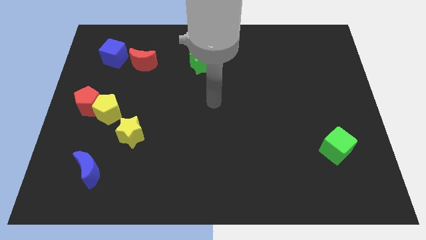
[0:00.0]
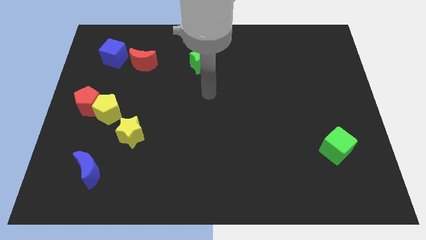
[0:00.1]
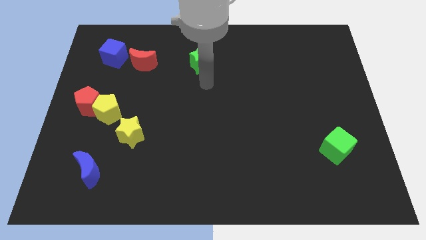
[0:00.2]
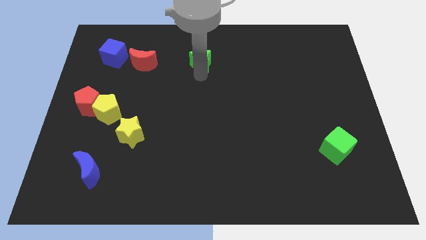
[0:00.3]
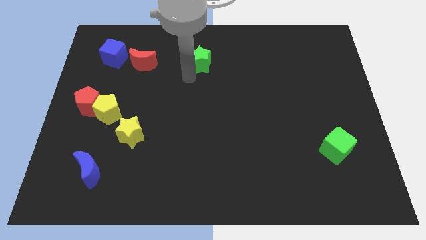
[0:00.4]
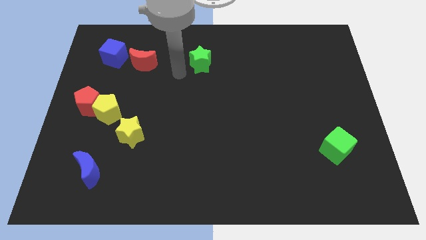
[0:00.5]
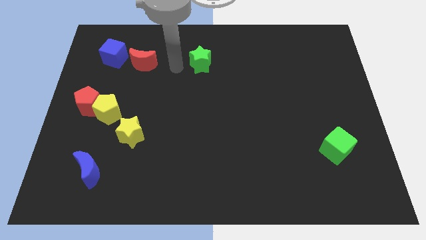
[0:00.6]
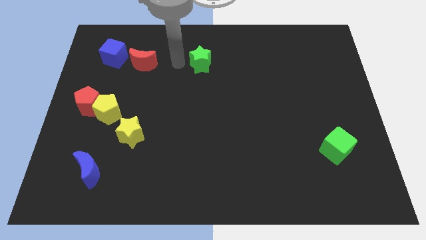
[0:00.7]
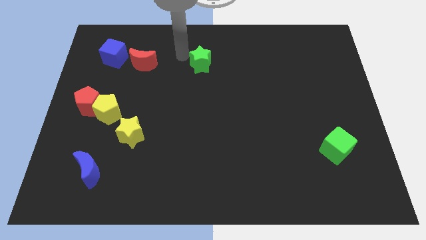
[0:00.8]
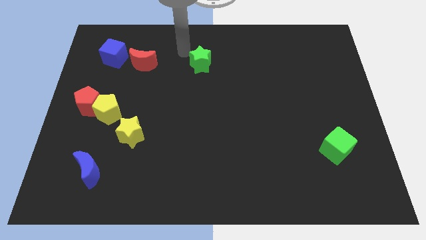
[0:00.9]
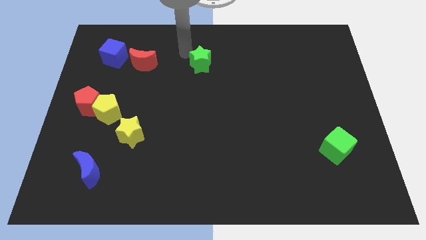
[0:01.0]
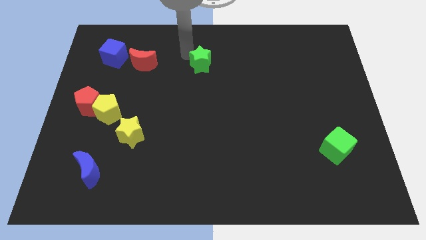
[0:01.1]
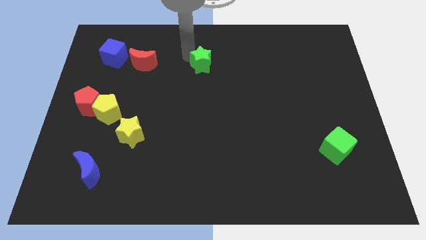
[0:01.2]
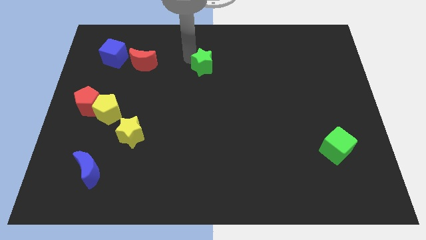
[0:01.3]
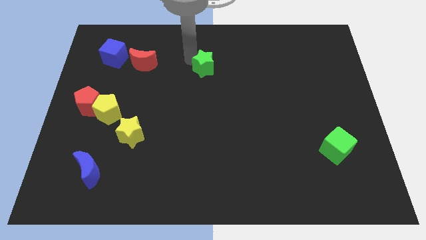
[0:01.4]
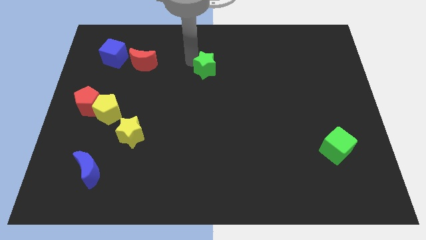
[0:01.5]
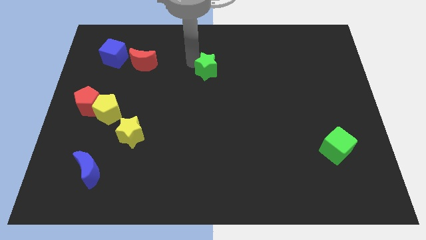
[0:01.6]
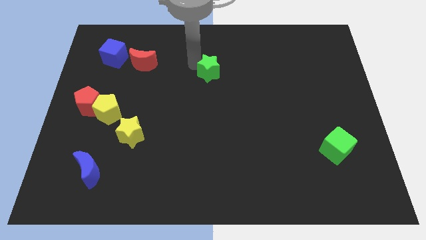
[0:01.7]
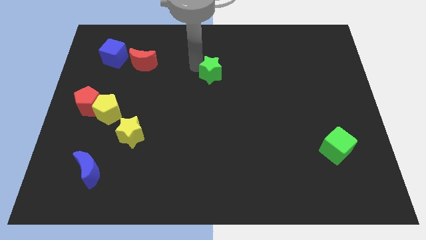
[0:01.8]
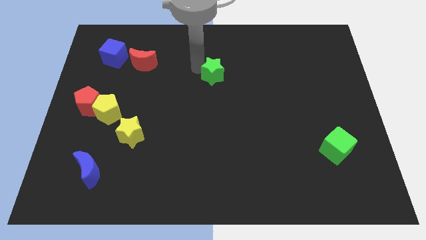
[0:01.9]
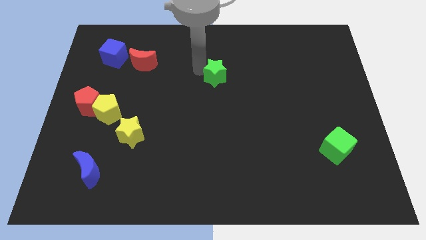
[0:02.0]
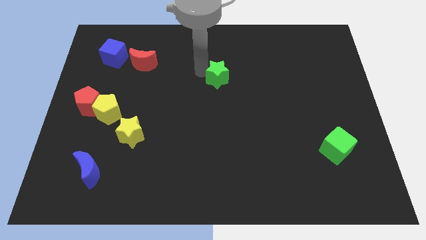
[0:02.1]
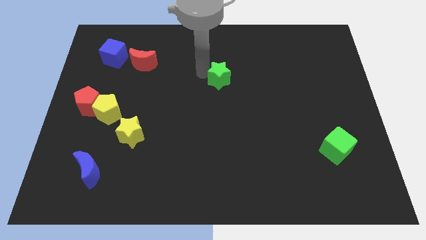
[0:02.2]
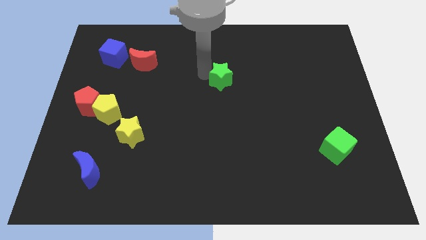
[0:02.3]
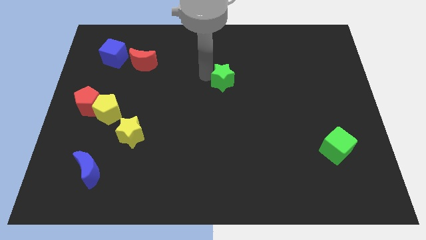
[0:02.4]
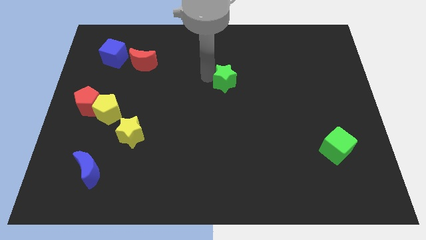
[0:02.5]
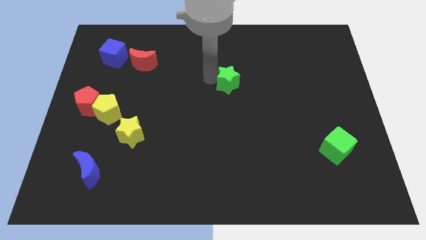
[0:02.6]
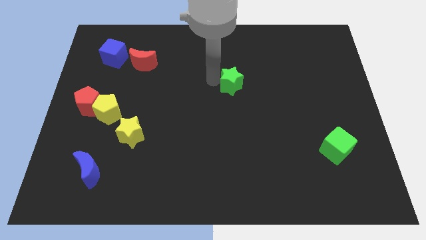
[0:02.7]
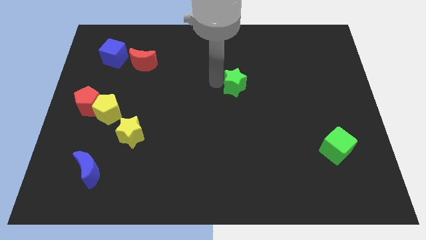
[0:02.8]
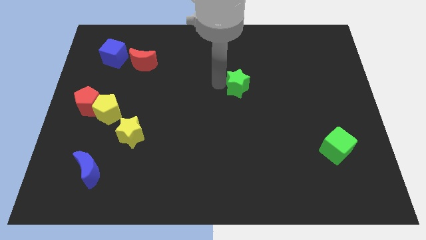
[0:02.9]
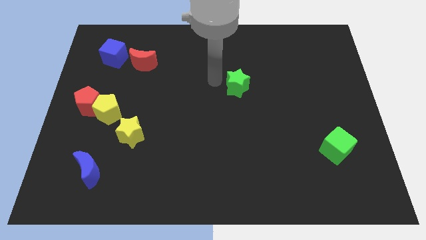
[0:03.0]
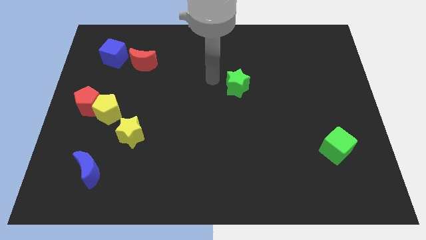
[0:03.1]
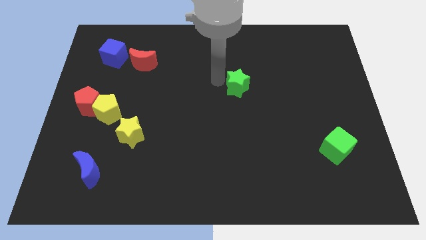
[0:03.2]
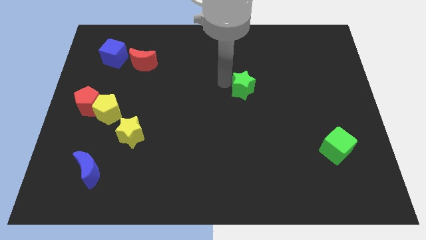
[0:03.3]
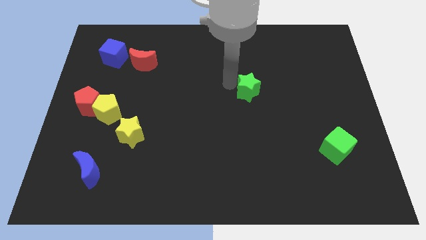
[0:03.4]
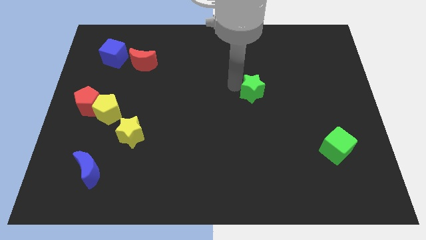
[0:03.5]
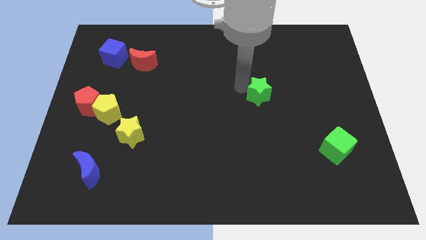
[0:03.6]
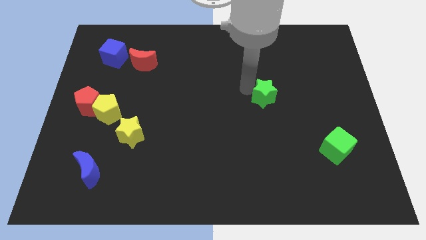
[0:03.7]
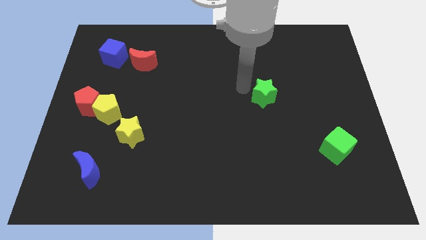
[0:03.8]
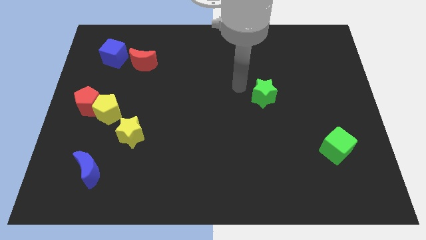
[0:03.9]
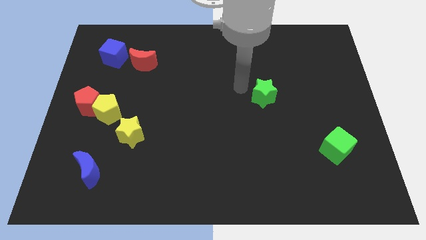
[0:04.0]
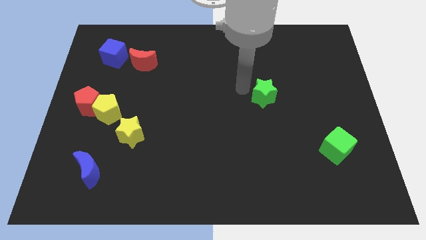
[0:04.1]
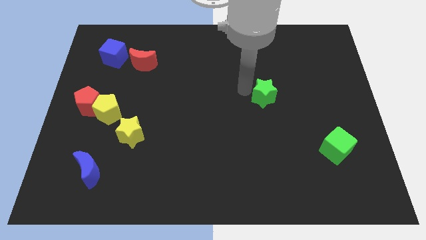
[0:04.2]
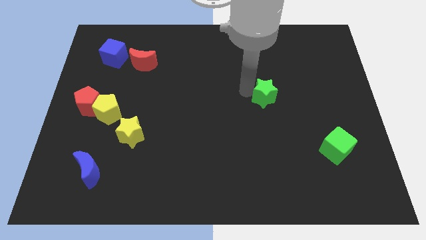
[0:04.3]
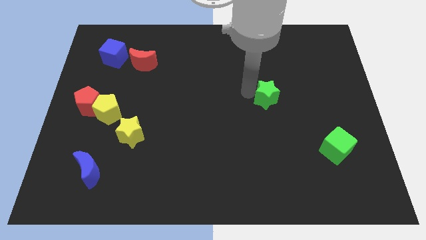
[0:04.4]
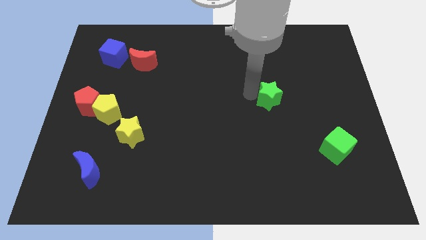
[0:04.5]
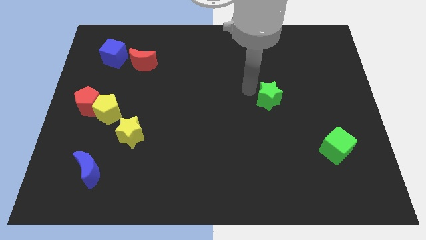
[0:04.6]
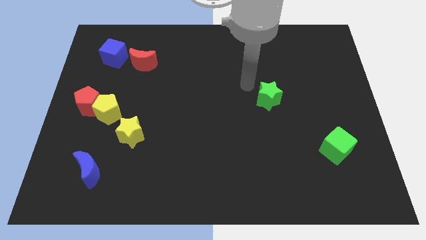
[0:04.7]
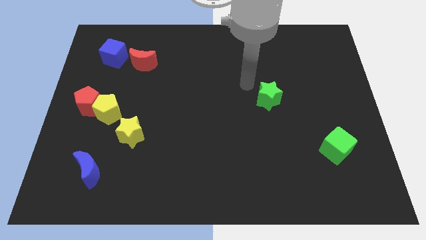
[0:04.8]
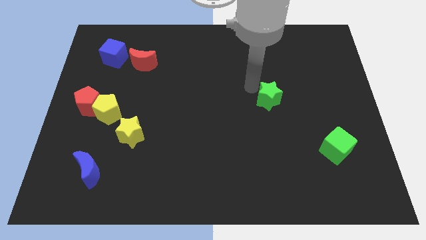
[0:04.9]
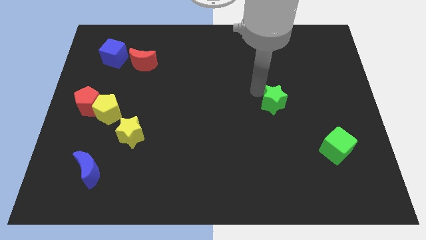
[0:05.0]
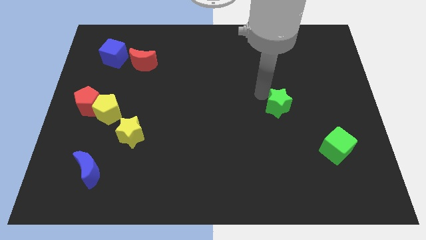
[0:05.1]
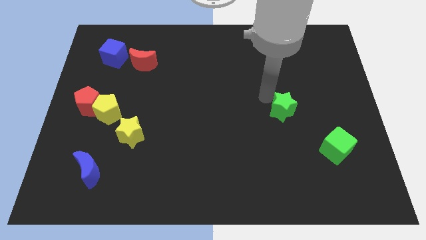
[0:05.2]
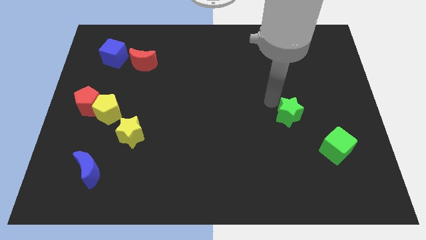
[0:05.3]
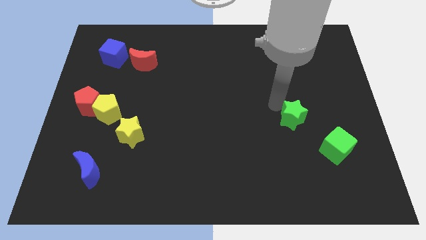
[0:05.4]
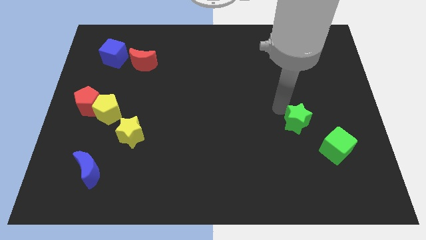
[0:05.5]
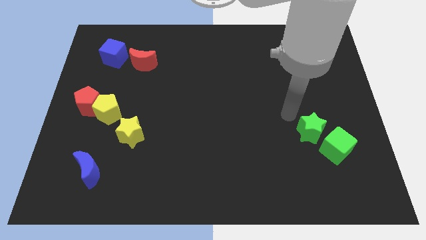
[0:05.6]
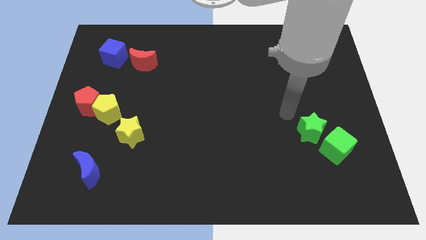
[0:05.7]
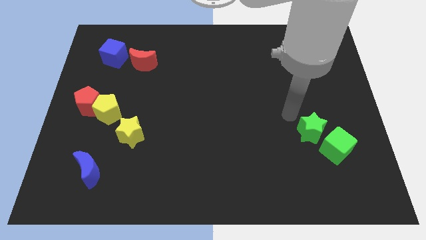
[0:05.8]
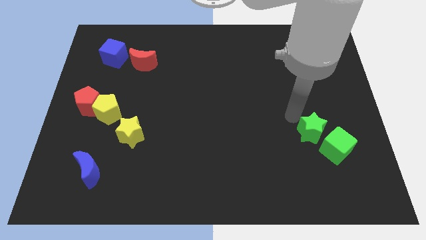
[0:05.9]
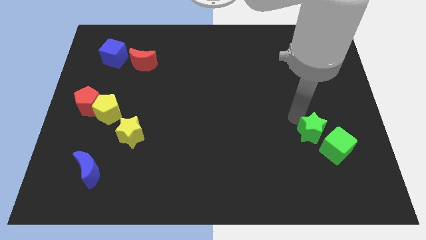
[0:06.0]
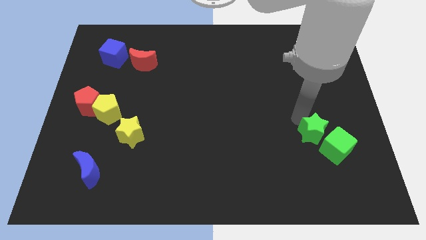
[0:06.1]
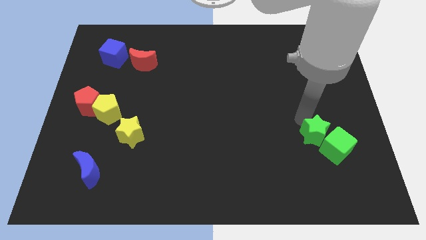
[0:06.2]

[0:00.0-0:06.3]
push the green star close to the green cube

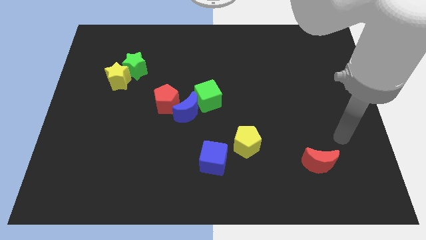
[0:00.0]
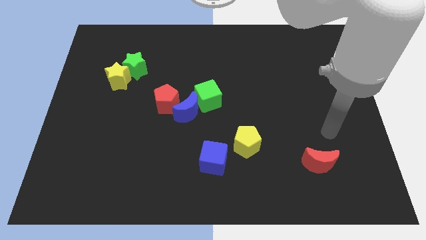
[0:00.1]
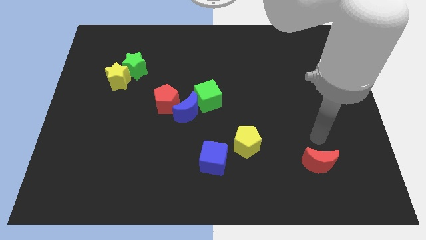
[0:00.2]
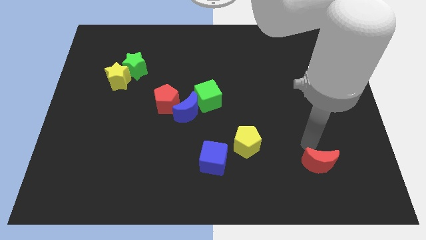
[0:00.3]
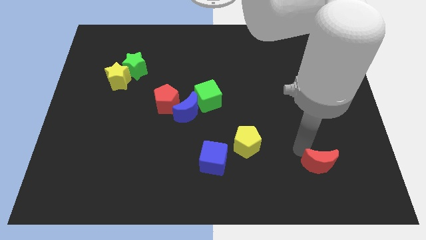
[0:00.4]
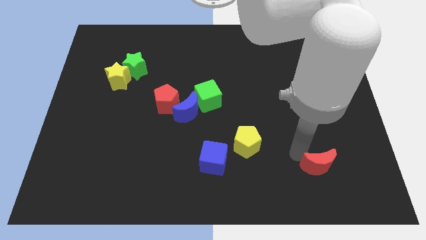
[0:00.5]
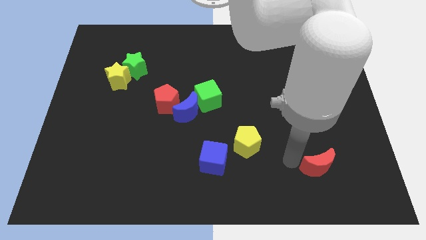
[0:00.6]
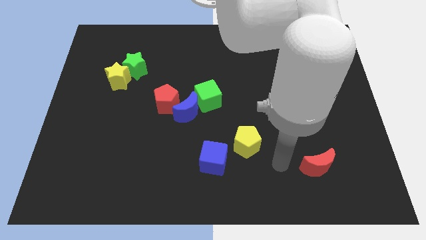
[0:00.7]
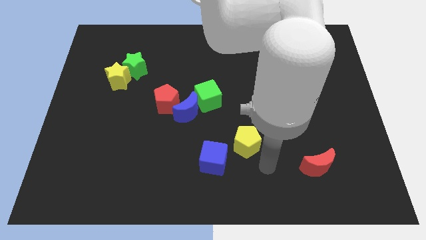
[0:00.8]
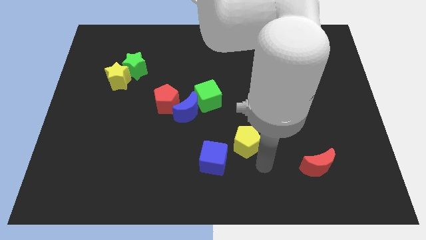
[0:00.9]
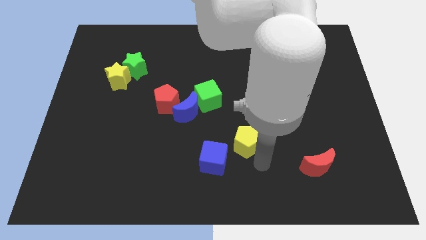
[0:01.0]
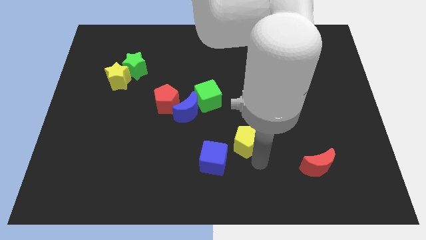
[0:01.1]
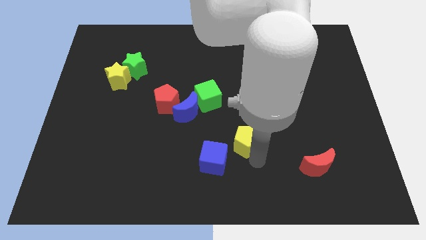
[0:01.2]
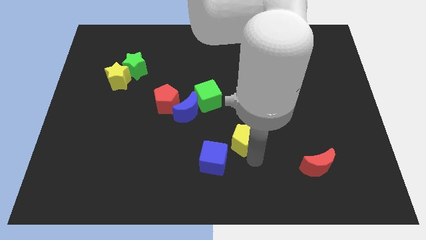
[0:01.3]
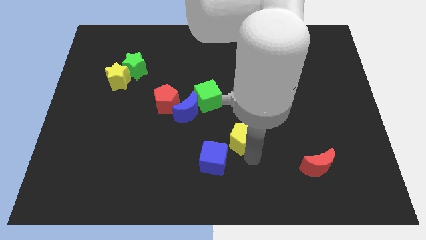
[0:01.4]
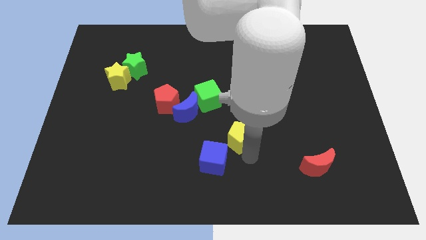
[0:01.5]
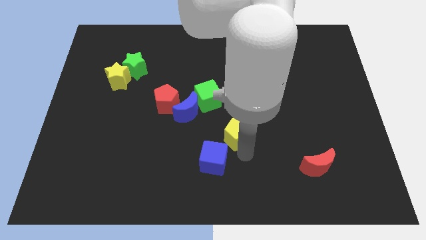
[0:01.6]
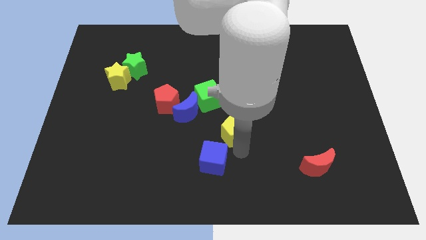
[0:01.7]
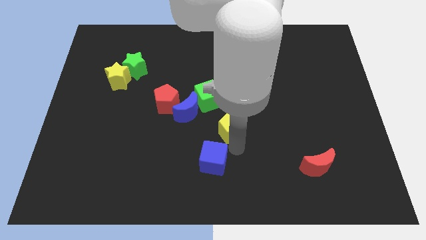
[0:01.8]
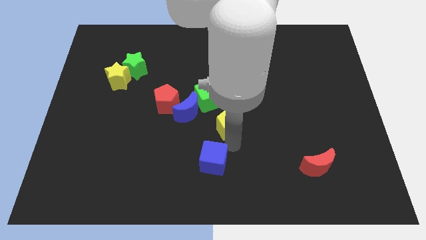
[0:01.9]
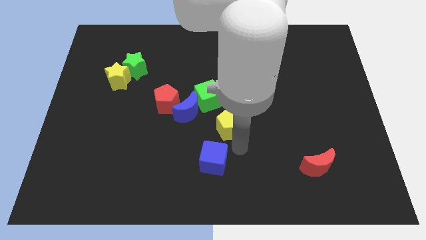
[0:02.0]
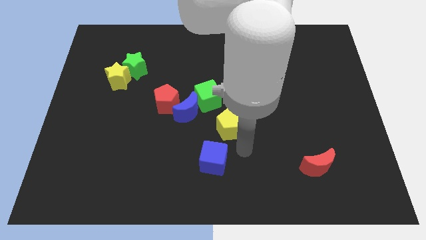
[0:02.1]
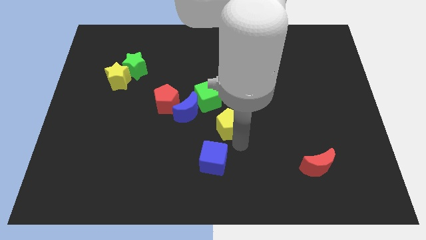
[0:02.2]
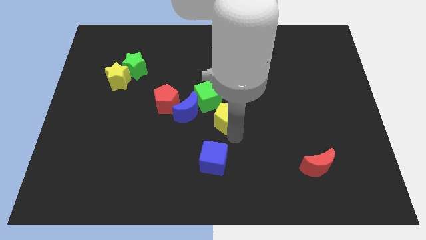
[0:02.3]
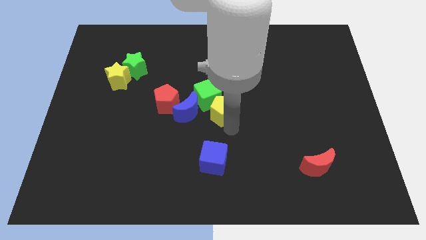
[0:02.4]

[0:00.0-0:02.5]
put the yellow pentagon to the green cube
